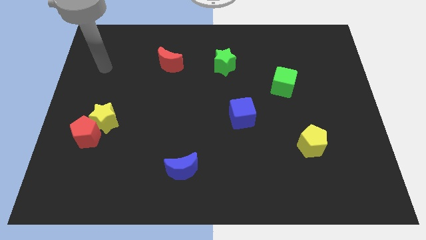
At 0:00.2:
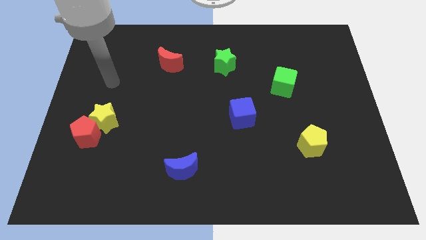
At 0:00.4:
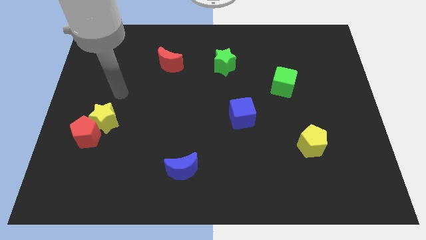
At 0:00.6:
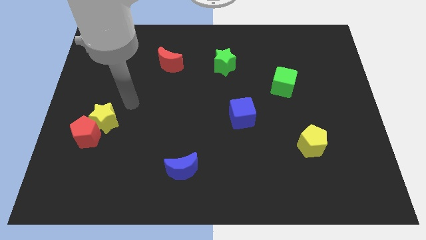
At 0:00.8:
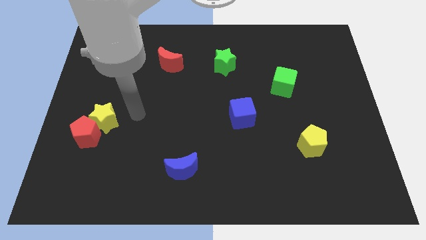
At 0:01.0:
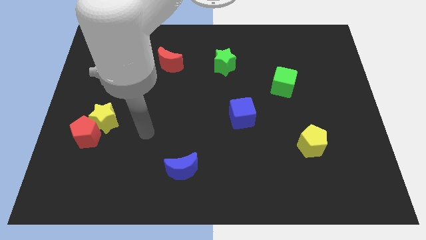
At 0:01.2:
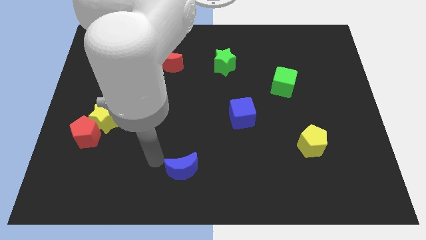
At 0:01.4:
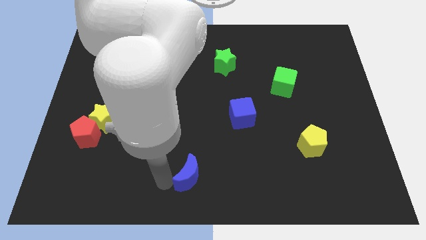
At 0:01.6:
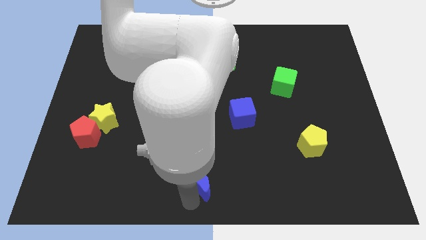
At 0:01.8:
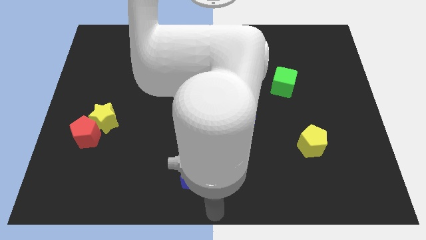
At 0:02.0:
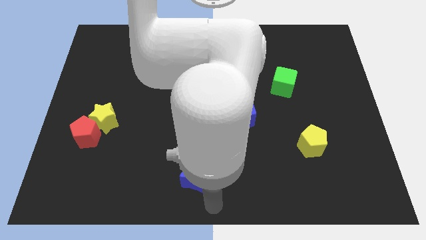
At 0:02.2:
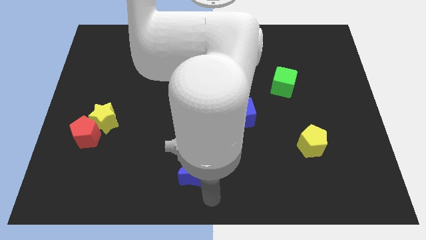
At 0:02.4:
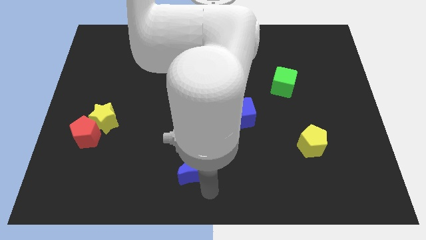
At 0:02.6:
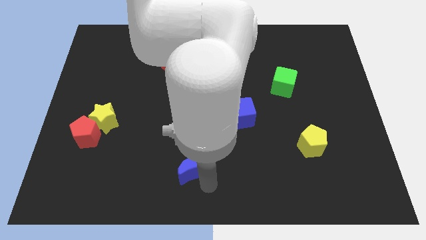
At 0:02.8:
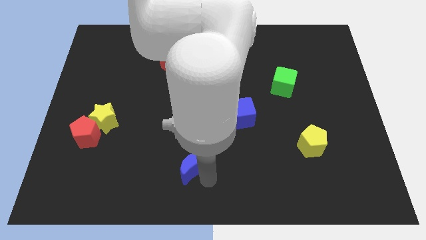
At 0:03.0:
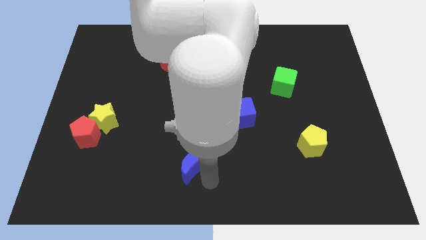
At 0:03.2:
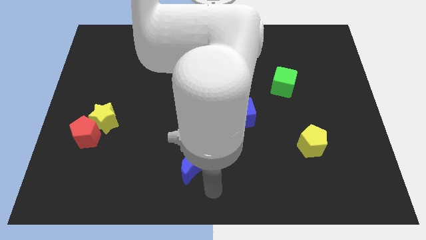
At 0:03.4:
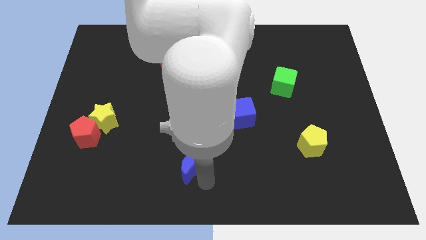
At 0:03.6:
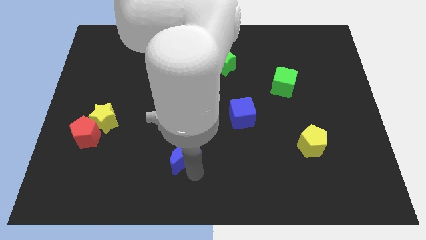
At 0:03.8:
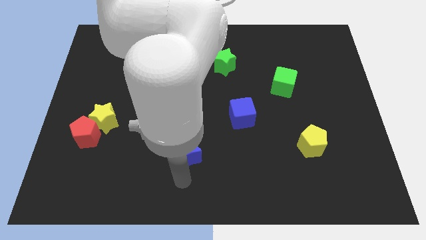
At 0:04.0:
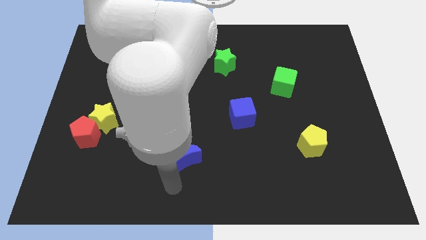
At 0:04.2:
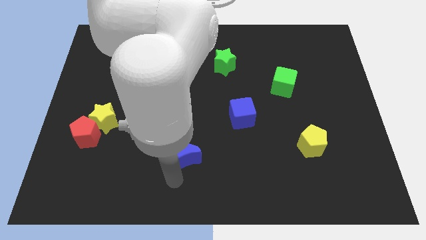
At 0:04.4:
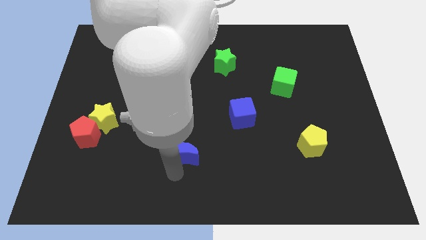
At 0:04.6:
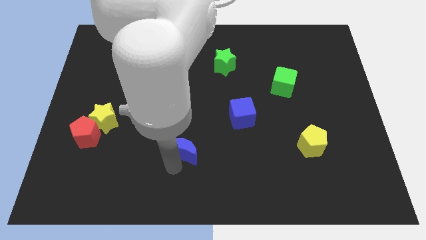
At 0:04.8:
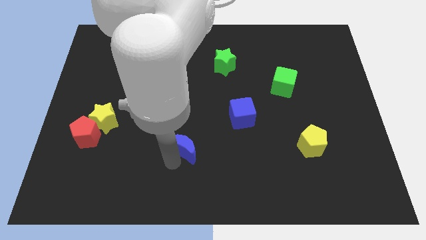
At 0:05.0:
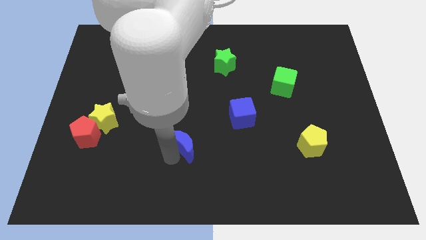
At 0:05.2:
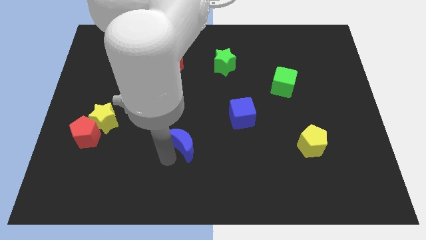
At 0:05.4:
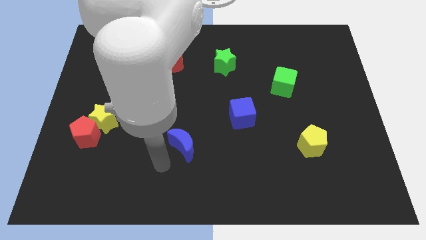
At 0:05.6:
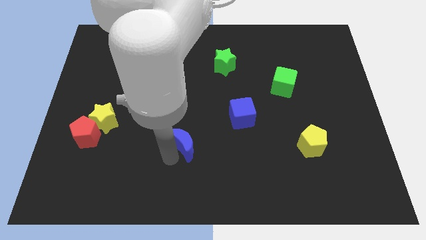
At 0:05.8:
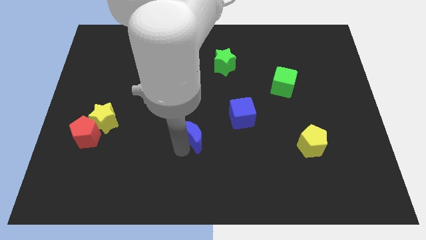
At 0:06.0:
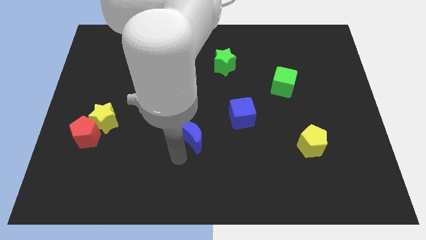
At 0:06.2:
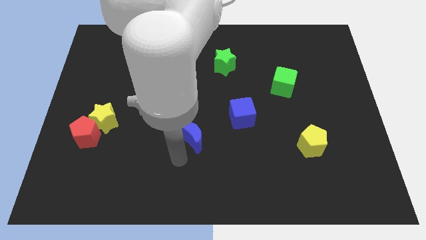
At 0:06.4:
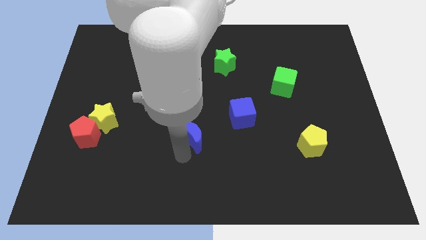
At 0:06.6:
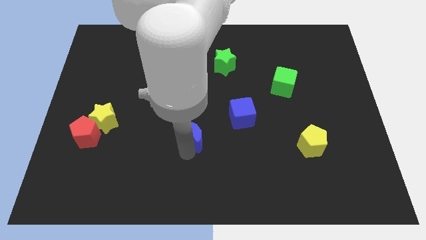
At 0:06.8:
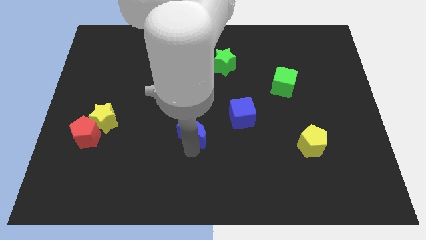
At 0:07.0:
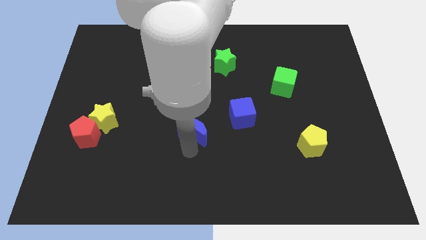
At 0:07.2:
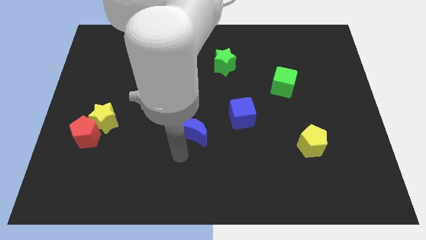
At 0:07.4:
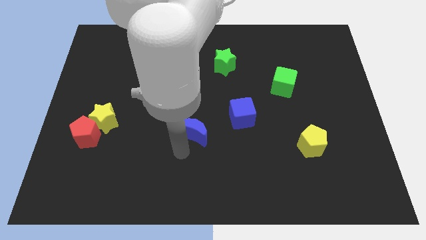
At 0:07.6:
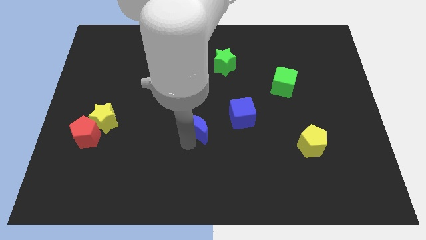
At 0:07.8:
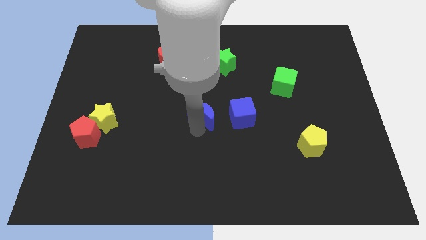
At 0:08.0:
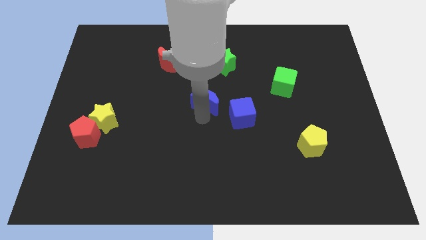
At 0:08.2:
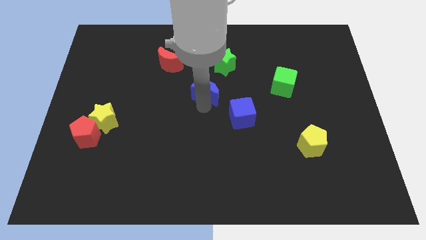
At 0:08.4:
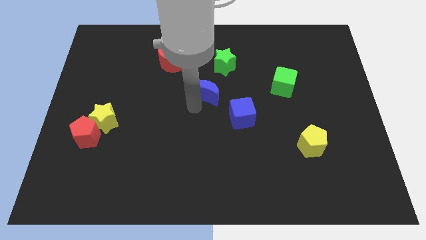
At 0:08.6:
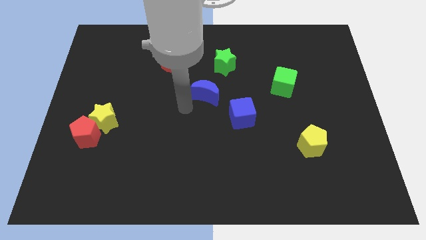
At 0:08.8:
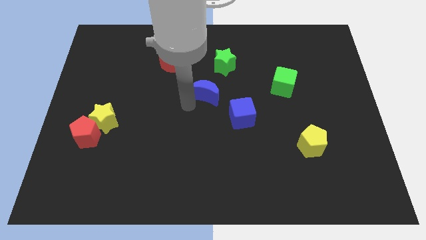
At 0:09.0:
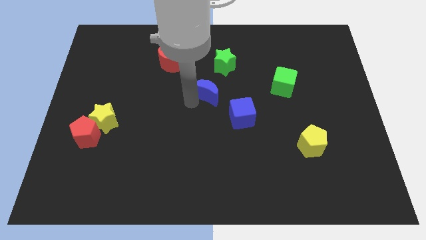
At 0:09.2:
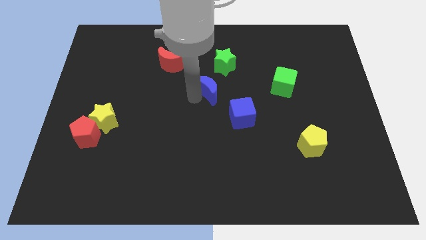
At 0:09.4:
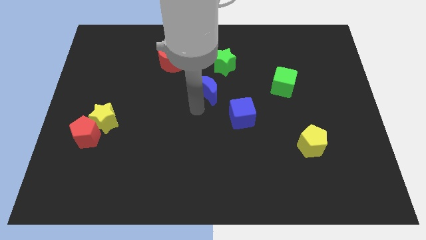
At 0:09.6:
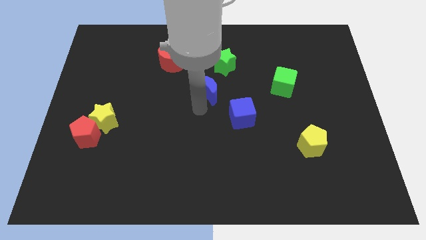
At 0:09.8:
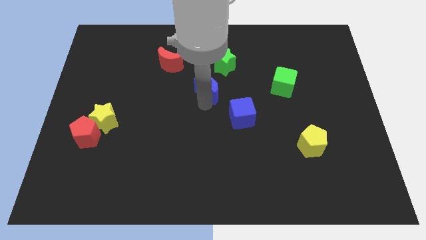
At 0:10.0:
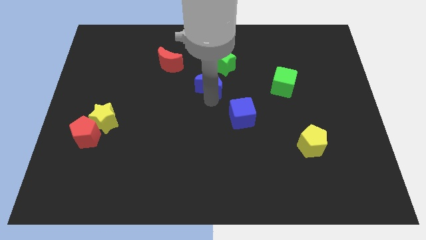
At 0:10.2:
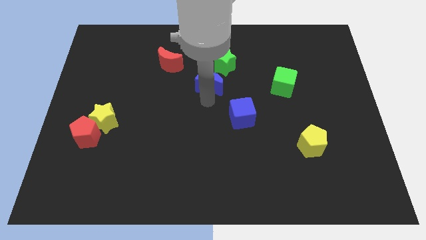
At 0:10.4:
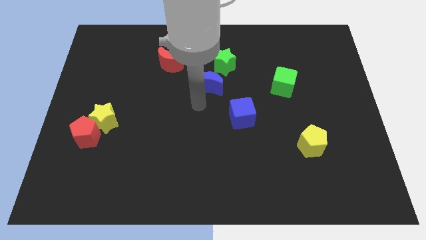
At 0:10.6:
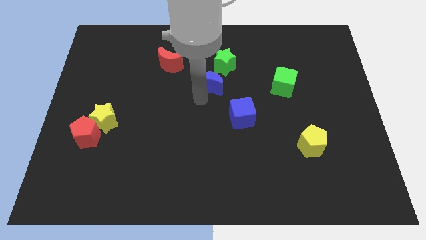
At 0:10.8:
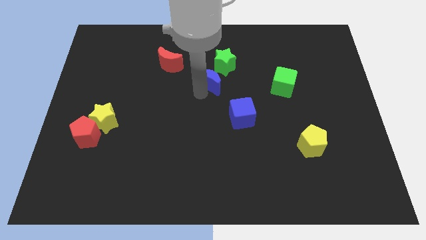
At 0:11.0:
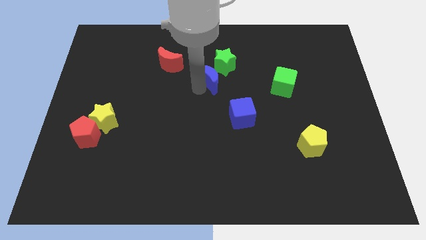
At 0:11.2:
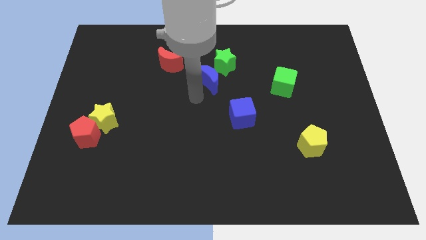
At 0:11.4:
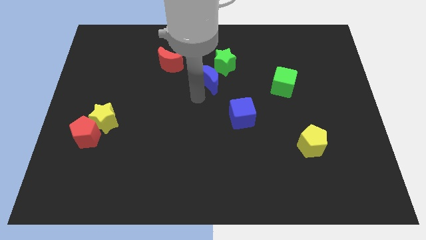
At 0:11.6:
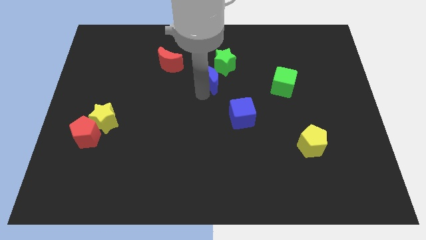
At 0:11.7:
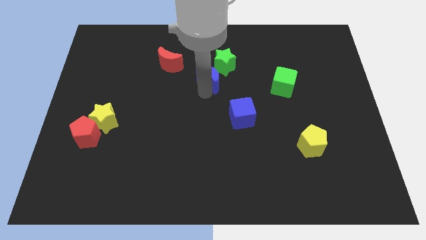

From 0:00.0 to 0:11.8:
slide the blue moon next to the green star

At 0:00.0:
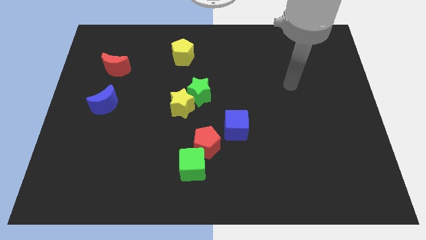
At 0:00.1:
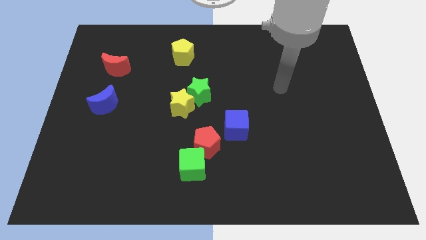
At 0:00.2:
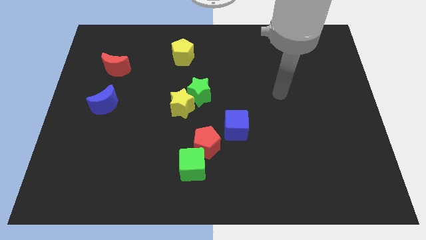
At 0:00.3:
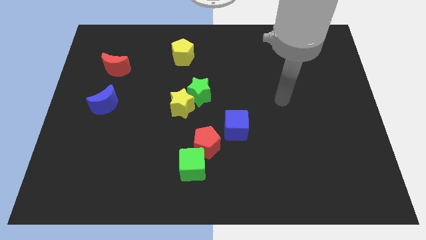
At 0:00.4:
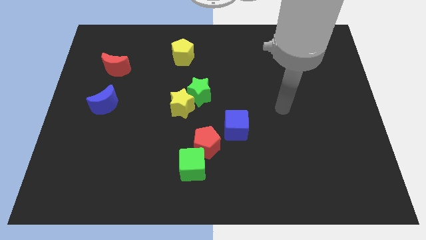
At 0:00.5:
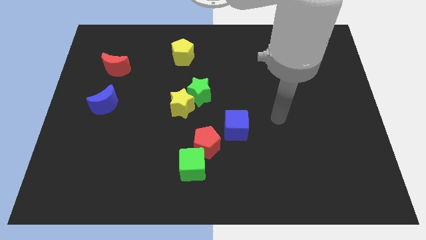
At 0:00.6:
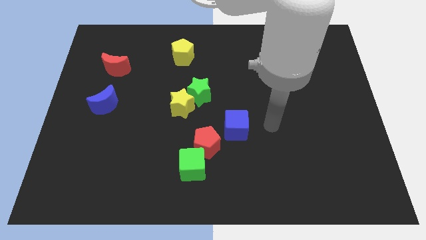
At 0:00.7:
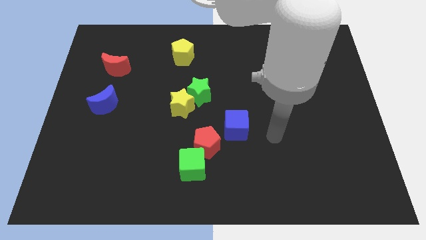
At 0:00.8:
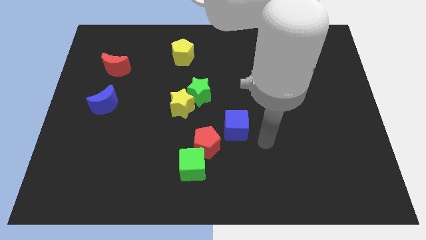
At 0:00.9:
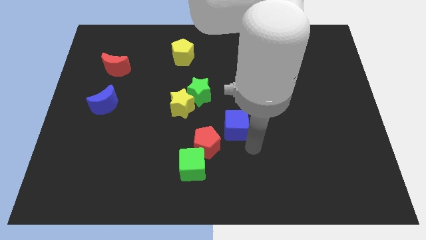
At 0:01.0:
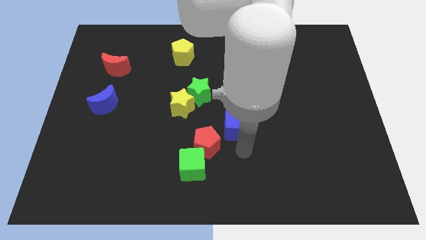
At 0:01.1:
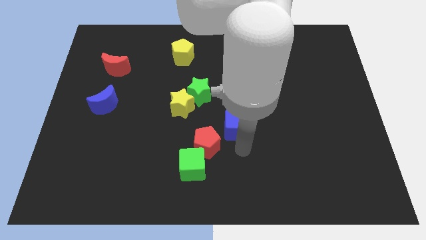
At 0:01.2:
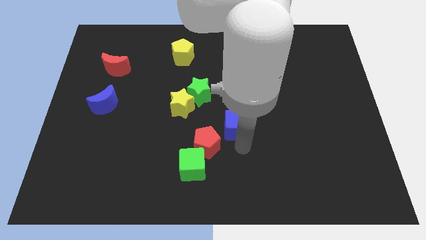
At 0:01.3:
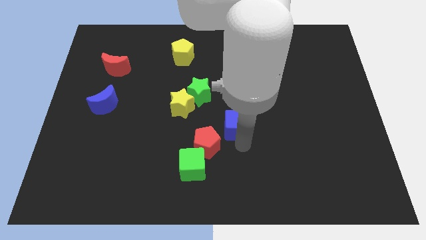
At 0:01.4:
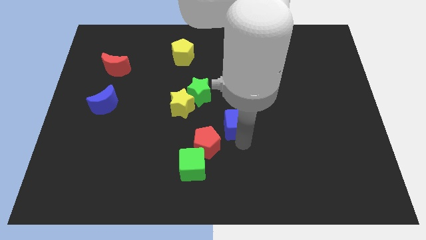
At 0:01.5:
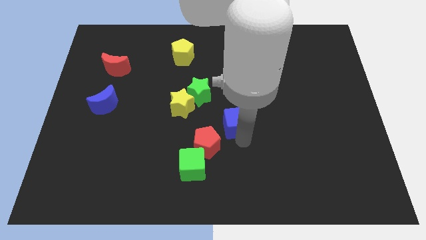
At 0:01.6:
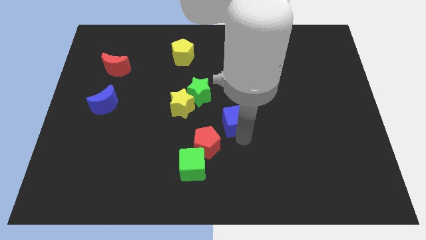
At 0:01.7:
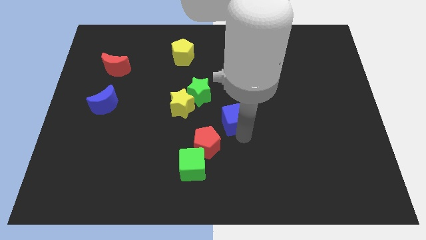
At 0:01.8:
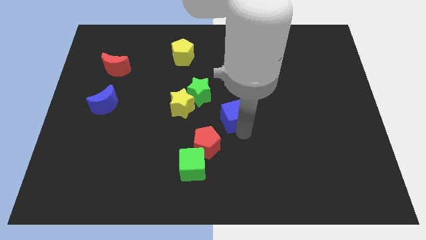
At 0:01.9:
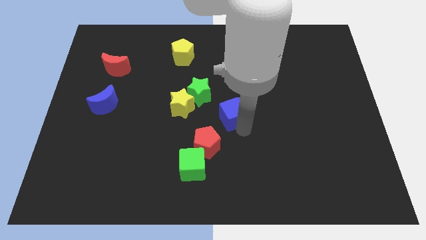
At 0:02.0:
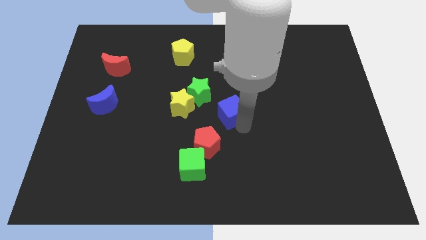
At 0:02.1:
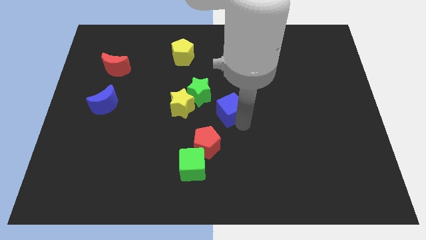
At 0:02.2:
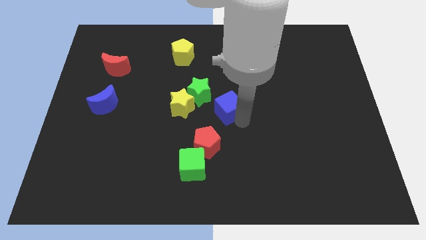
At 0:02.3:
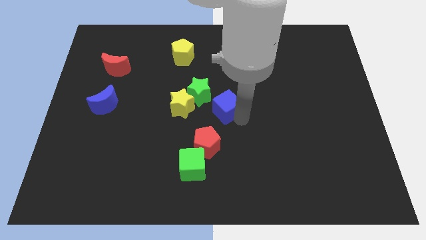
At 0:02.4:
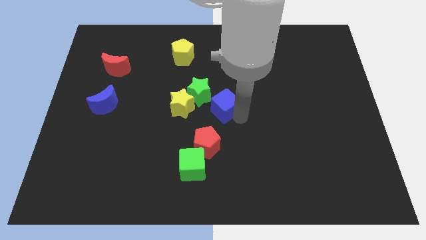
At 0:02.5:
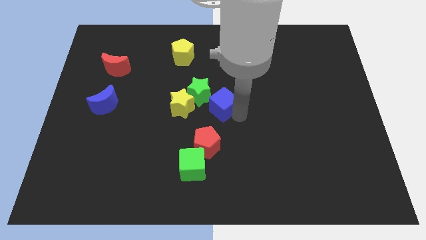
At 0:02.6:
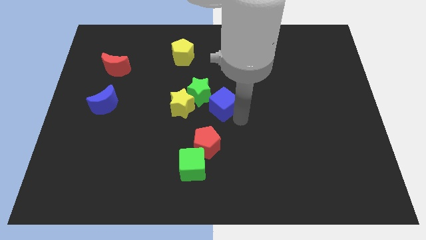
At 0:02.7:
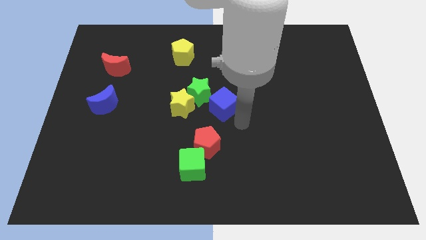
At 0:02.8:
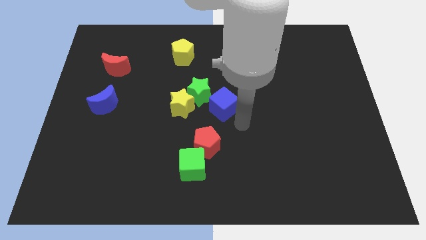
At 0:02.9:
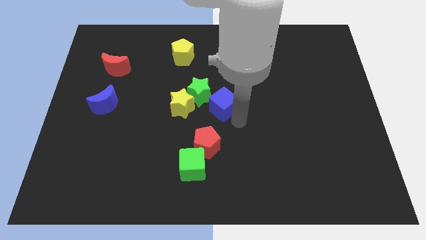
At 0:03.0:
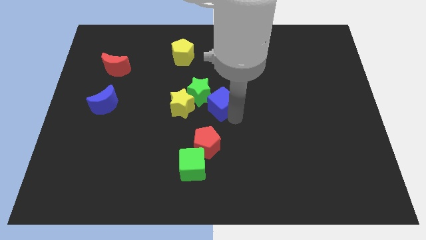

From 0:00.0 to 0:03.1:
put the blue cube close to the green star
